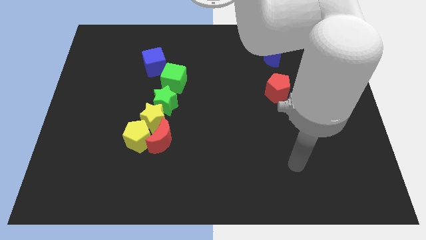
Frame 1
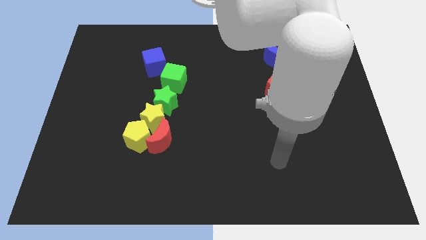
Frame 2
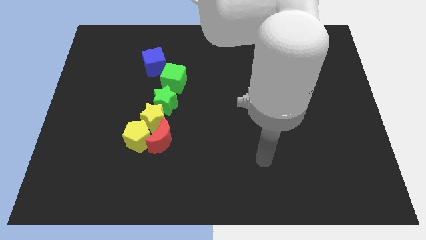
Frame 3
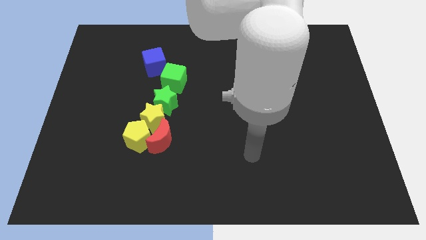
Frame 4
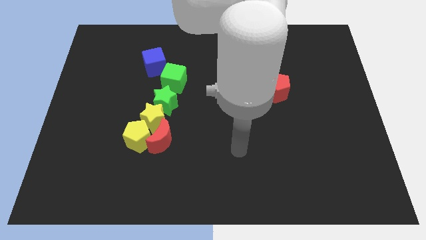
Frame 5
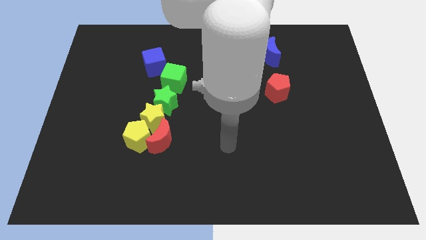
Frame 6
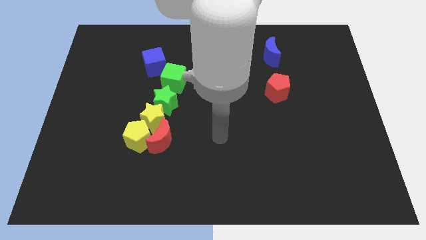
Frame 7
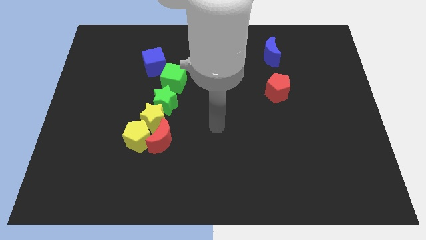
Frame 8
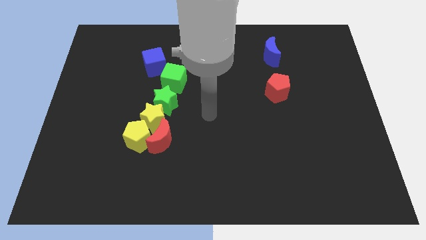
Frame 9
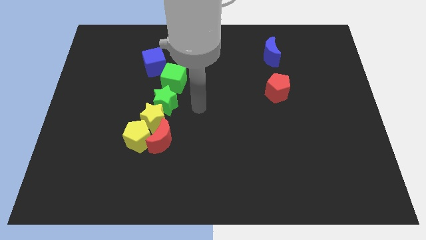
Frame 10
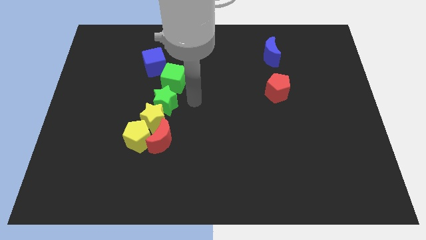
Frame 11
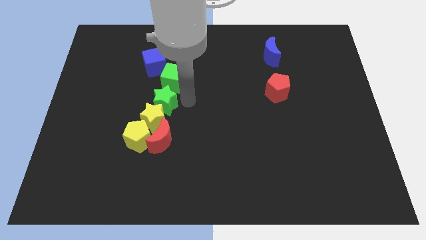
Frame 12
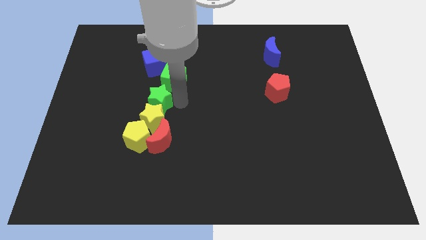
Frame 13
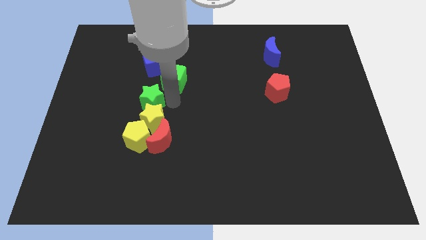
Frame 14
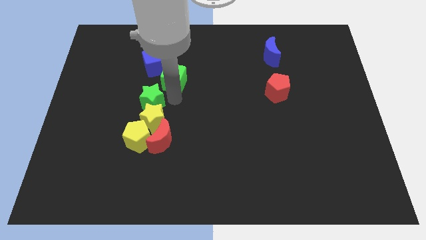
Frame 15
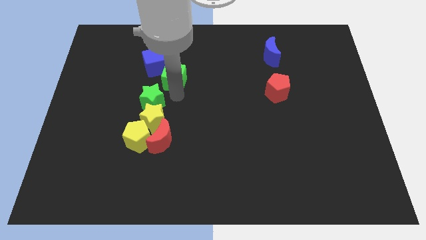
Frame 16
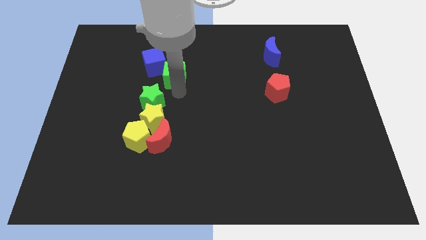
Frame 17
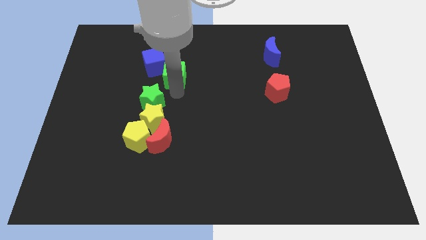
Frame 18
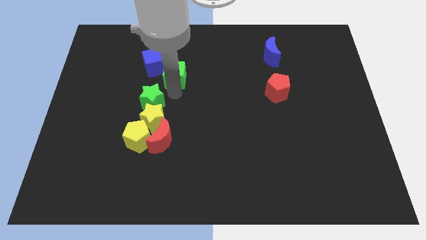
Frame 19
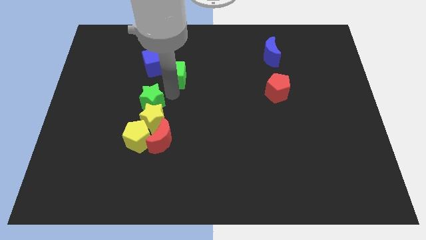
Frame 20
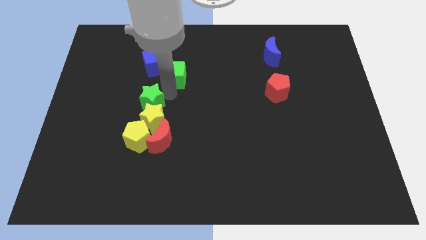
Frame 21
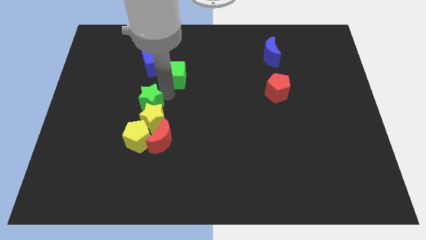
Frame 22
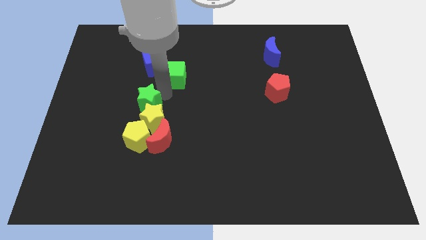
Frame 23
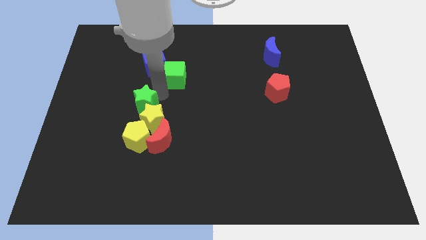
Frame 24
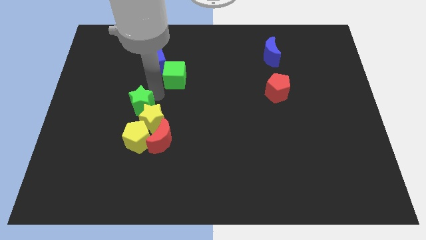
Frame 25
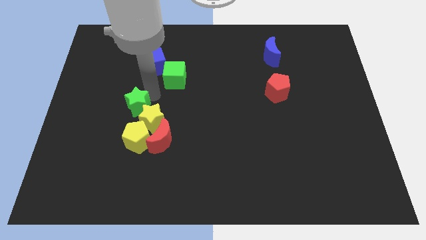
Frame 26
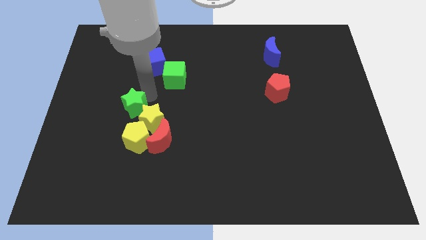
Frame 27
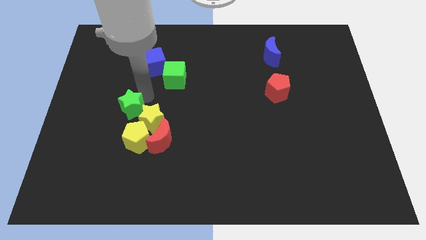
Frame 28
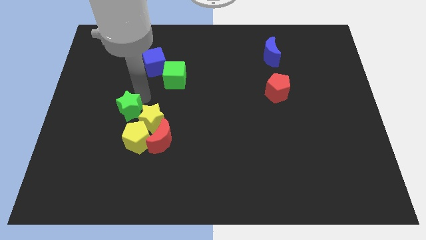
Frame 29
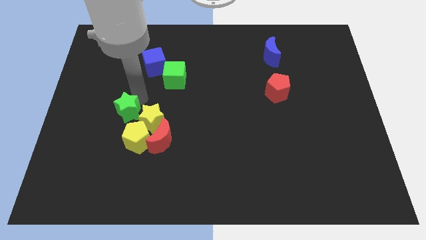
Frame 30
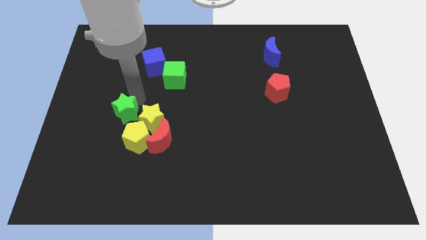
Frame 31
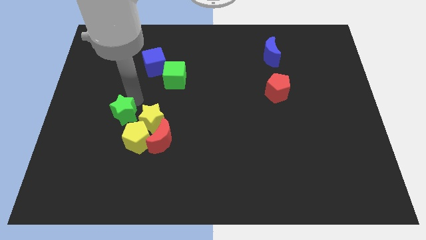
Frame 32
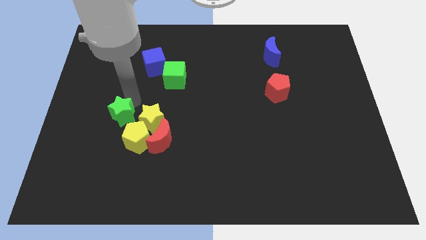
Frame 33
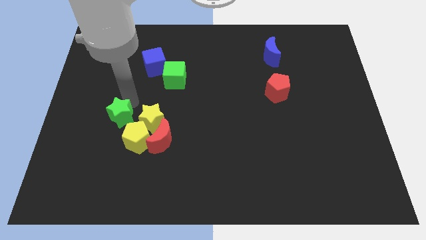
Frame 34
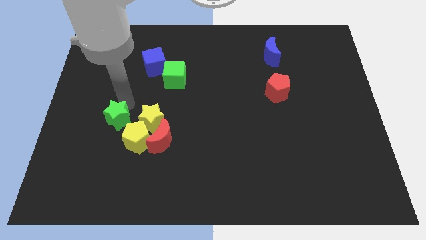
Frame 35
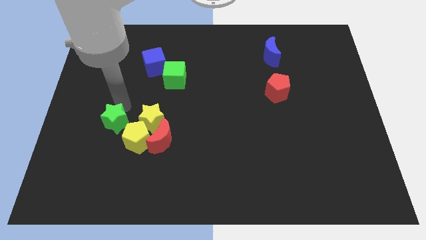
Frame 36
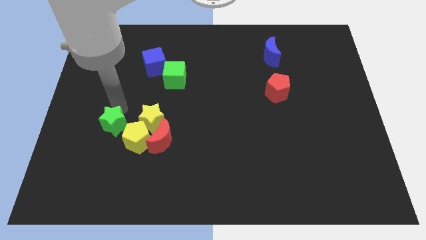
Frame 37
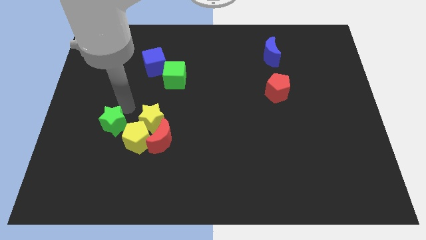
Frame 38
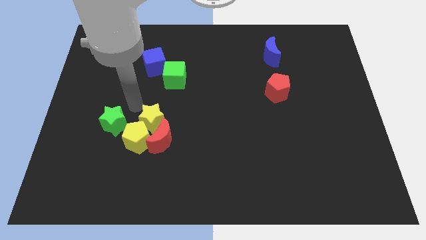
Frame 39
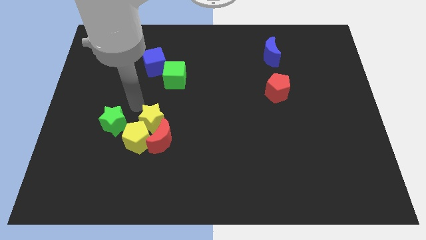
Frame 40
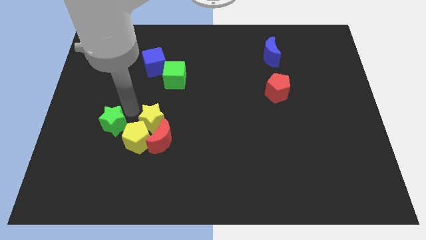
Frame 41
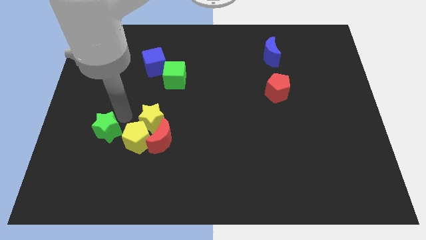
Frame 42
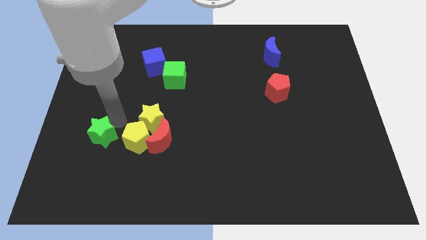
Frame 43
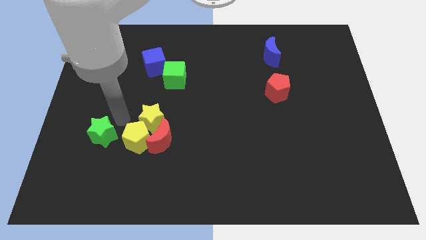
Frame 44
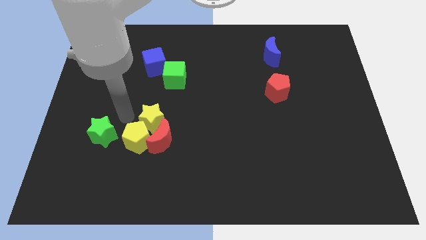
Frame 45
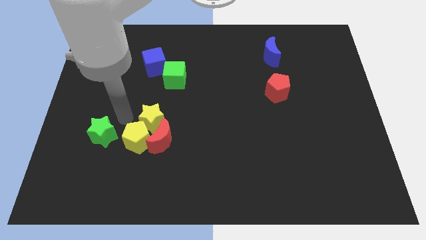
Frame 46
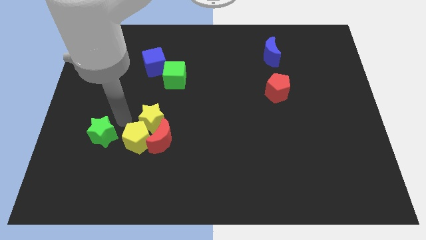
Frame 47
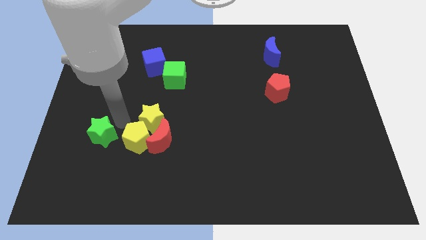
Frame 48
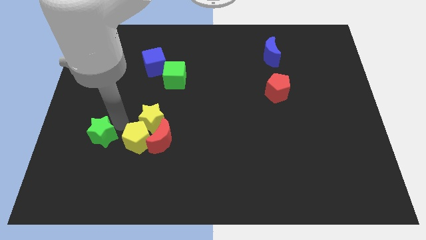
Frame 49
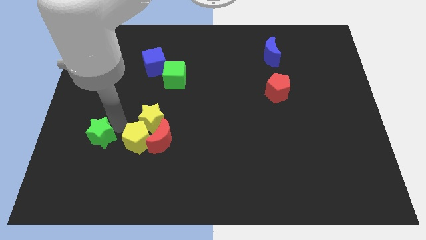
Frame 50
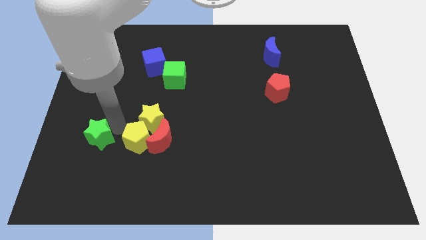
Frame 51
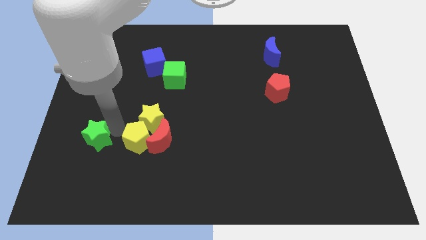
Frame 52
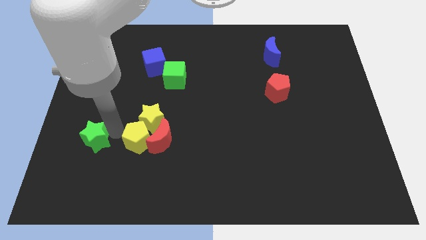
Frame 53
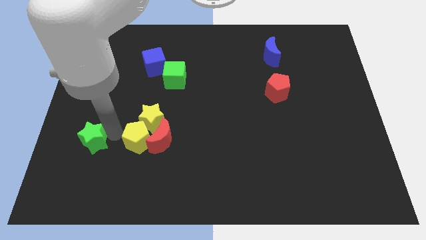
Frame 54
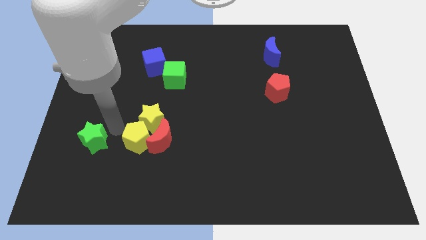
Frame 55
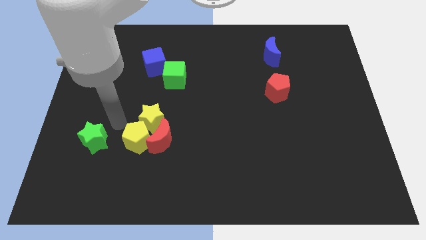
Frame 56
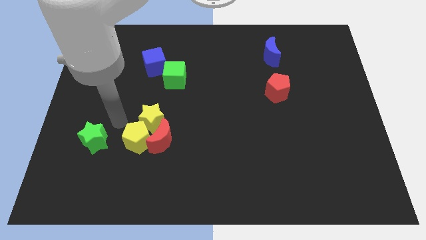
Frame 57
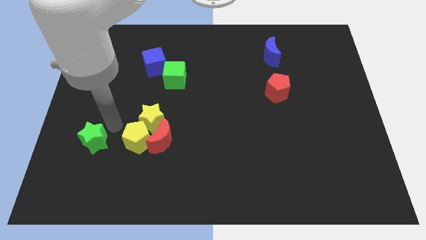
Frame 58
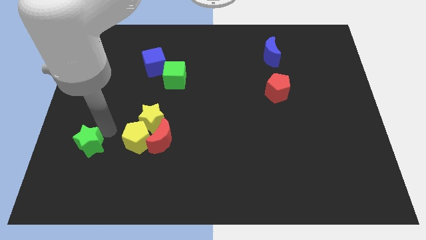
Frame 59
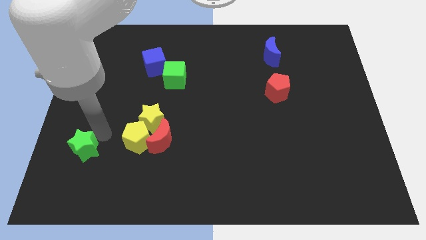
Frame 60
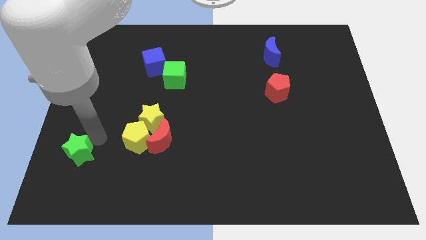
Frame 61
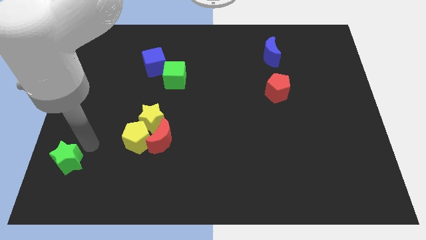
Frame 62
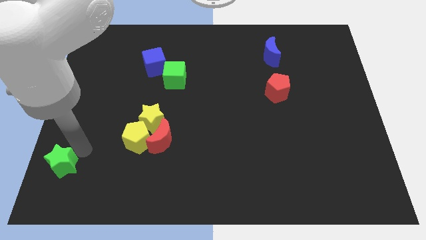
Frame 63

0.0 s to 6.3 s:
slide the green star to the bottom left corner
